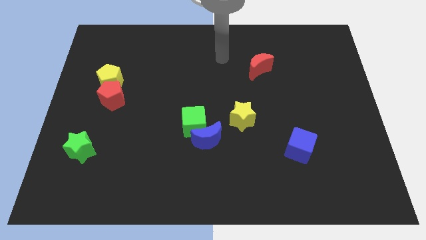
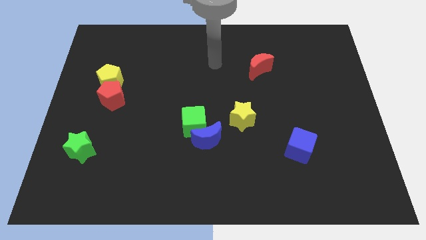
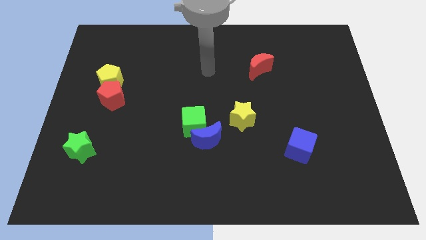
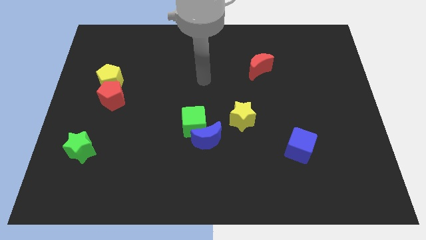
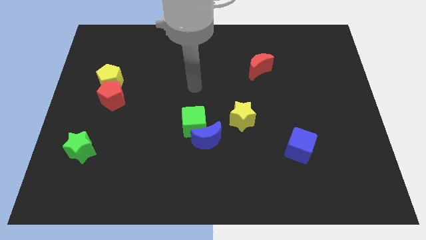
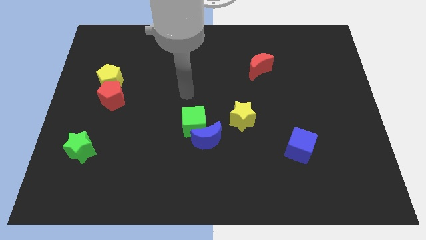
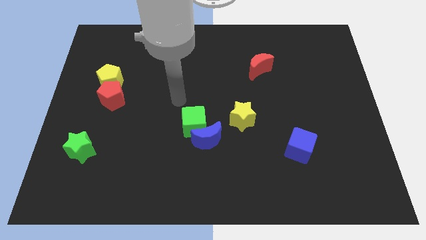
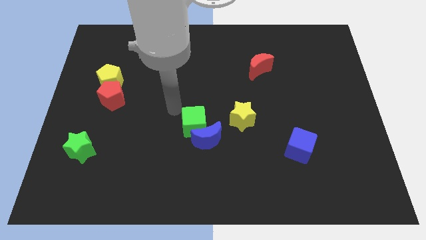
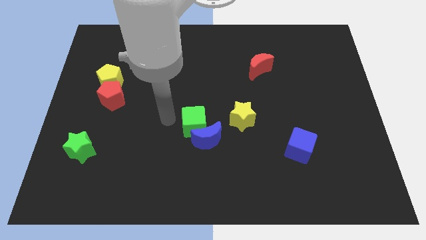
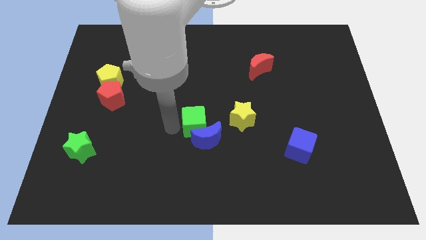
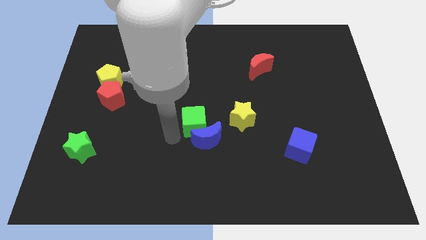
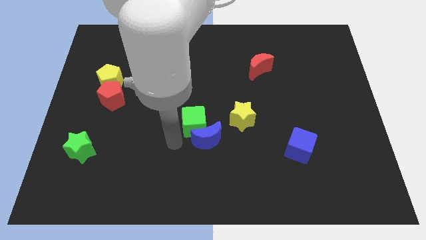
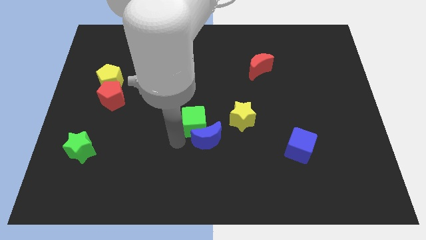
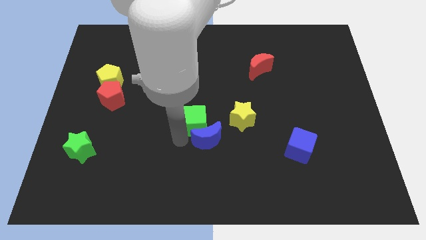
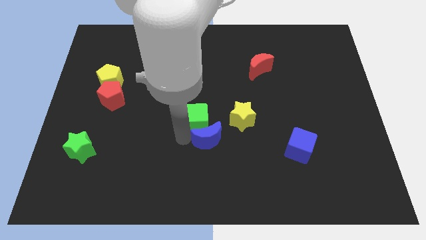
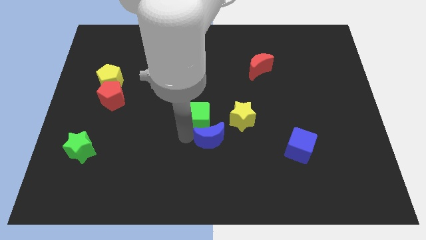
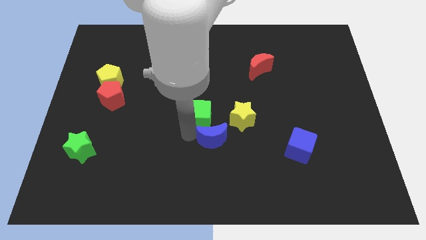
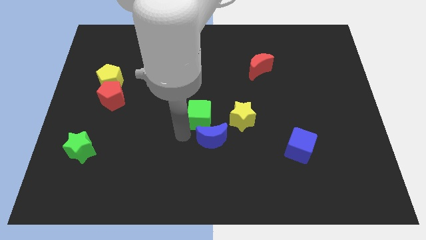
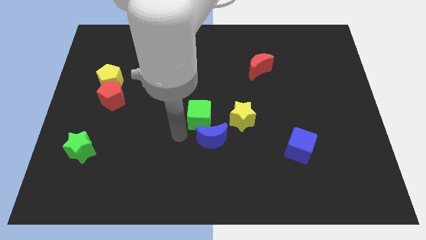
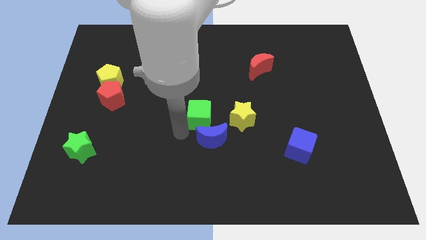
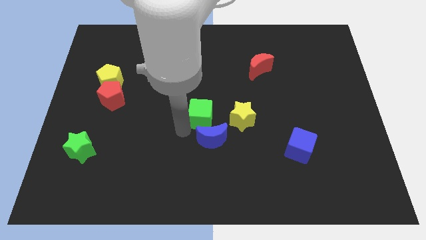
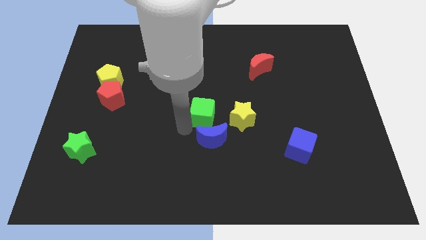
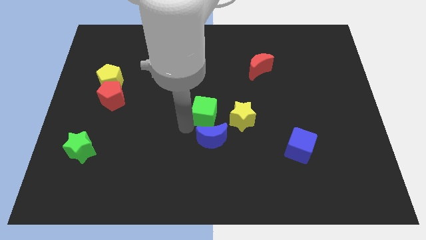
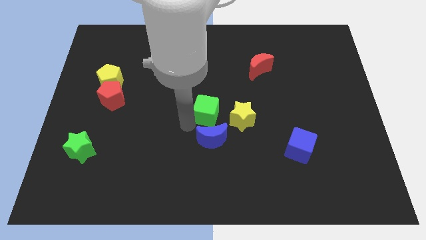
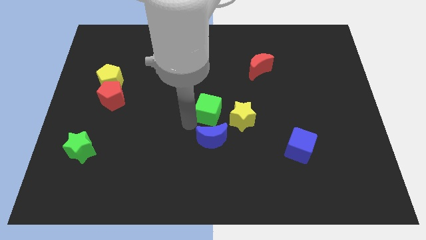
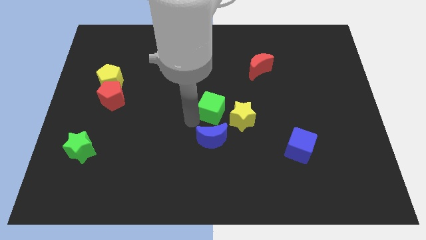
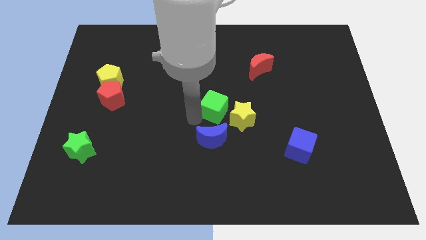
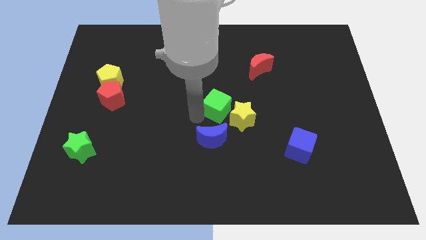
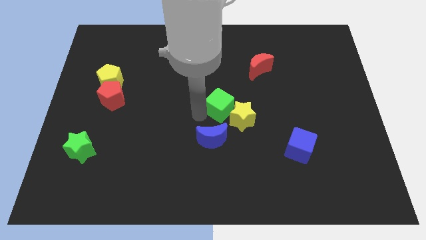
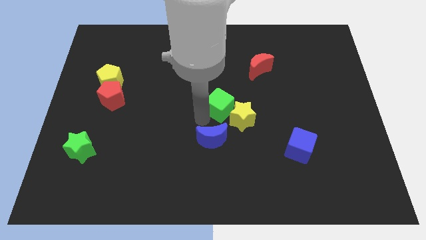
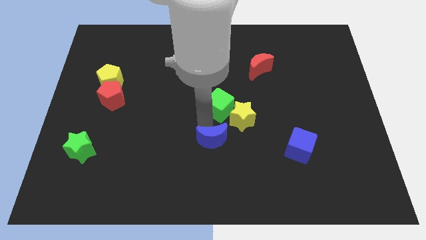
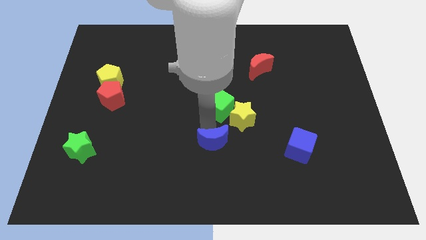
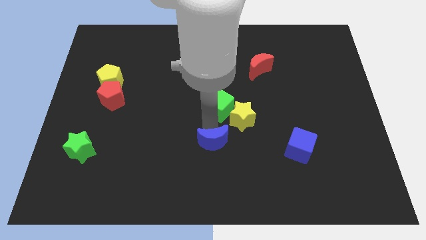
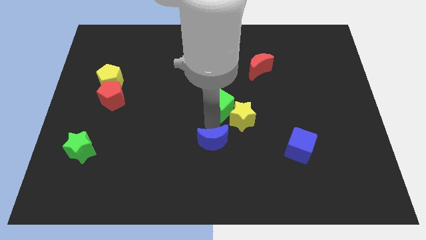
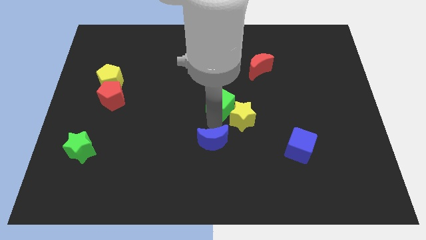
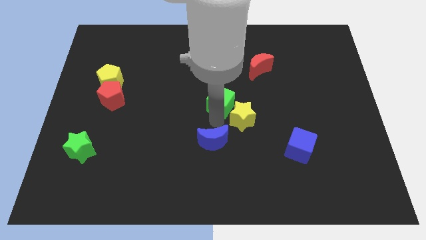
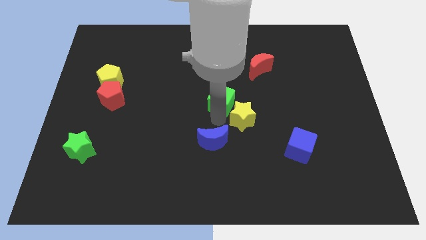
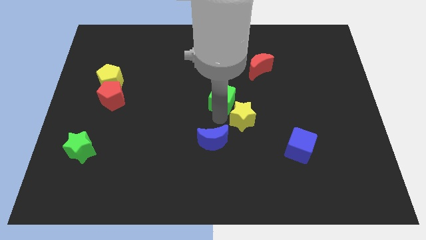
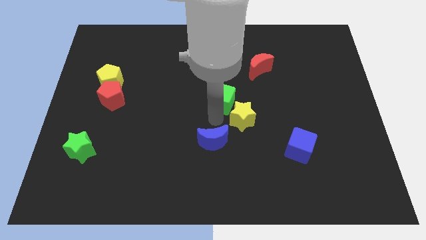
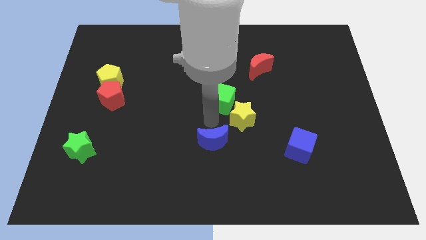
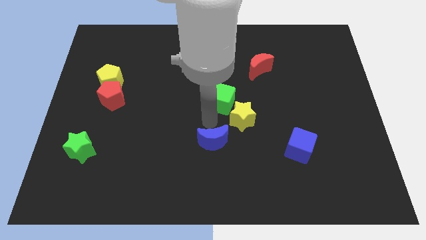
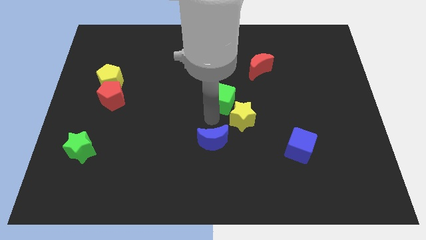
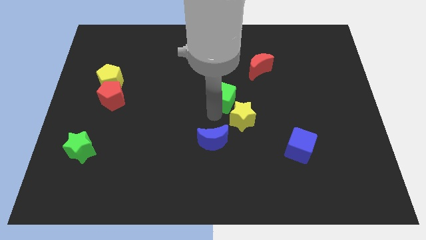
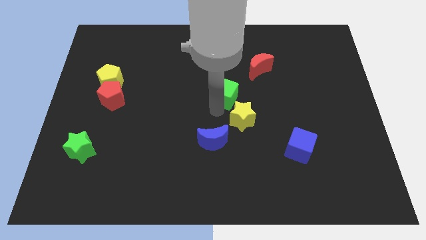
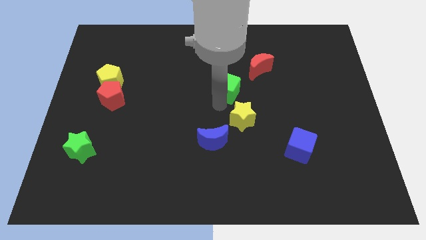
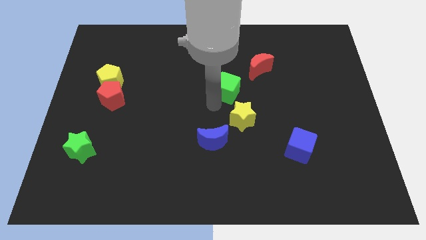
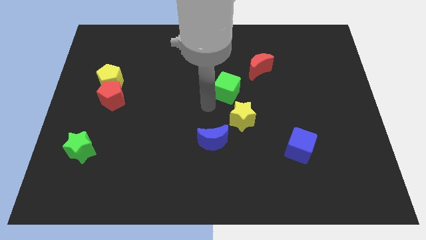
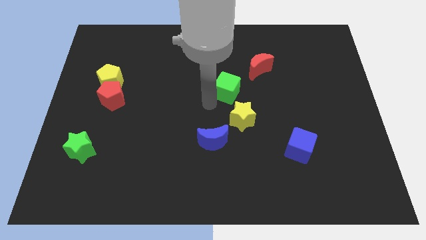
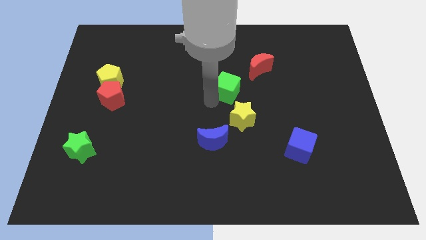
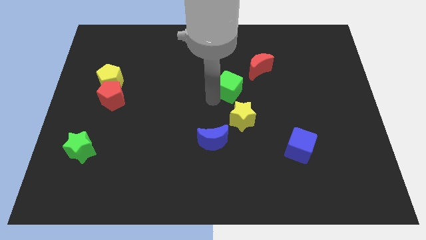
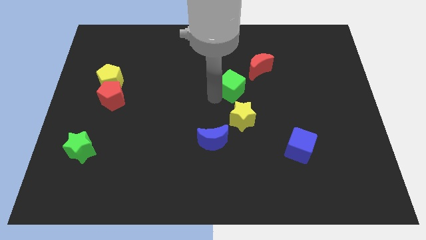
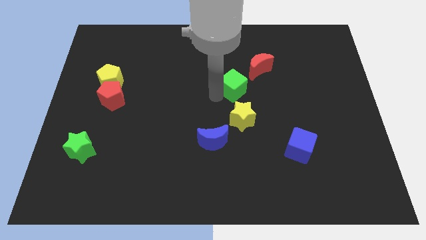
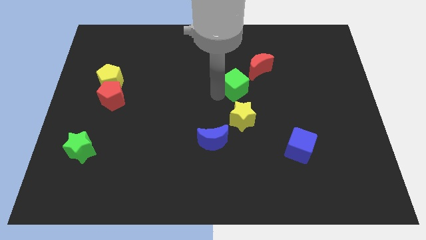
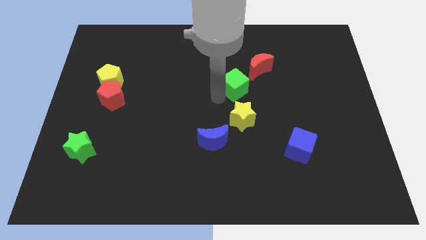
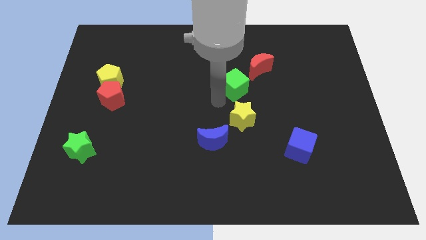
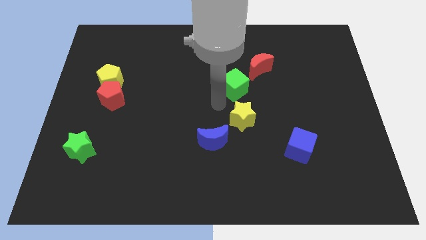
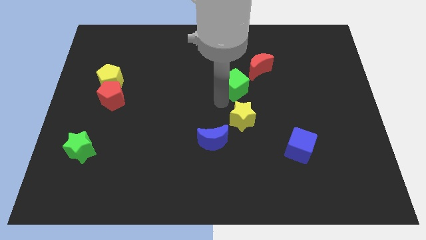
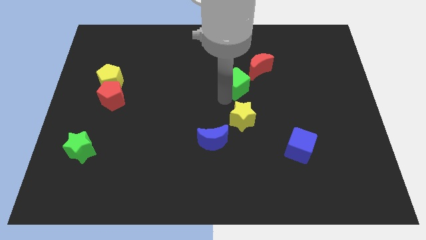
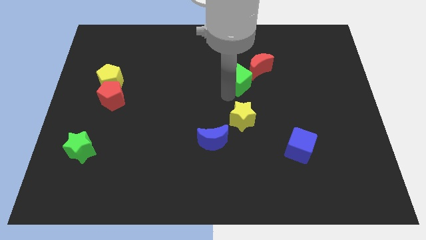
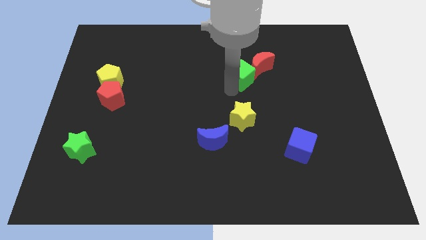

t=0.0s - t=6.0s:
slide the green cube towards the red moon

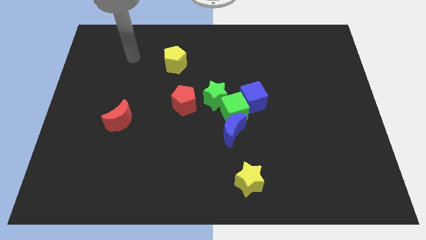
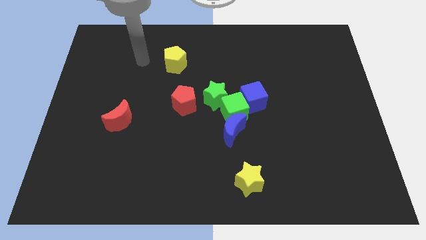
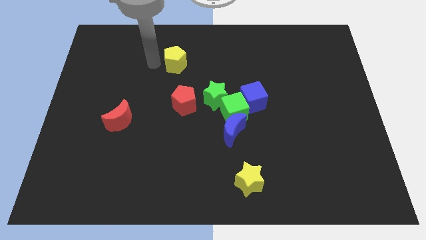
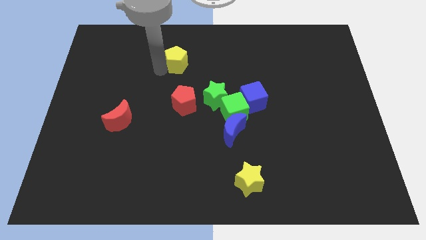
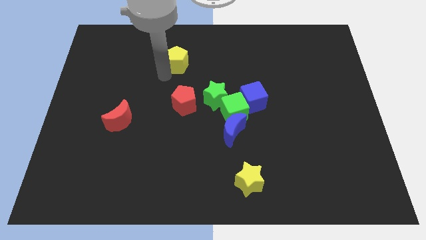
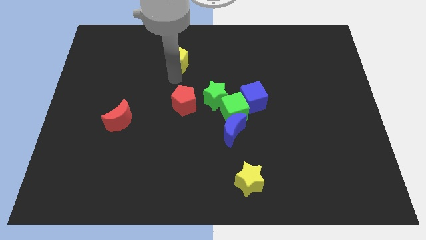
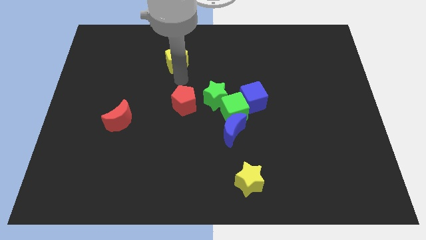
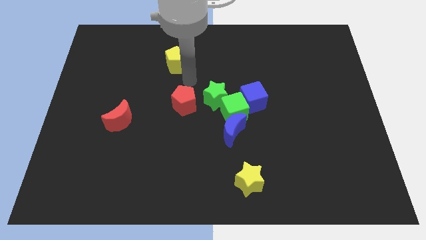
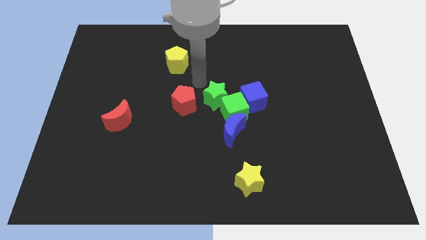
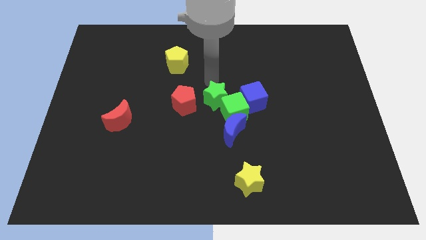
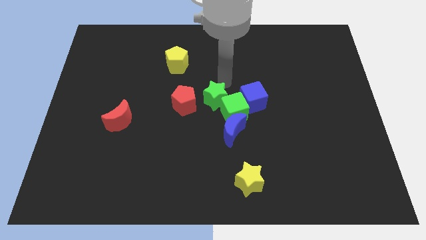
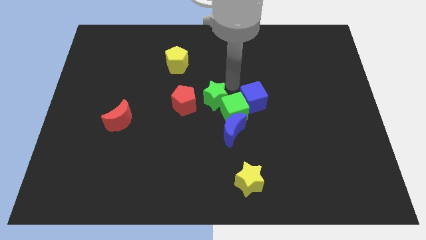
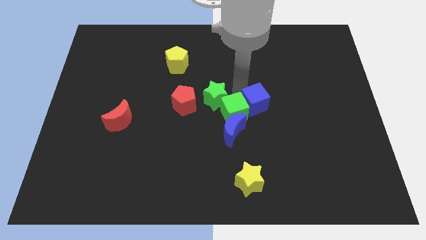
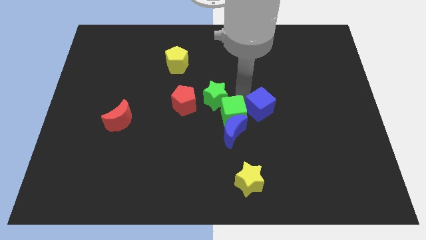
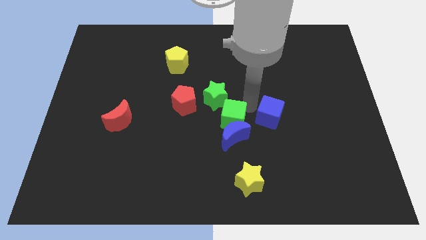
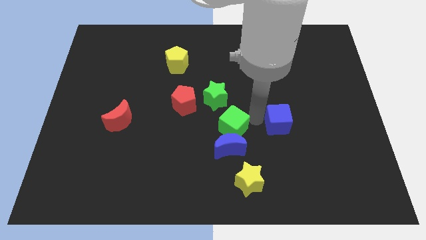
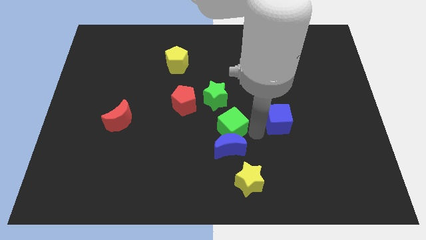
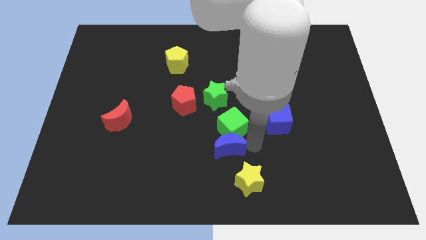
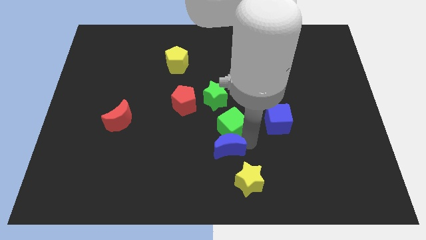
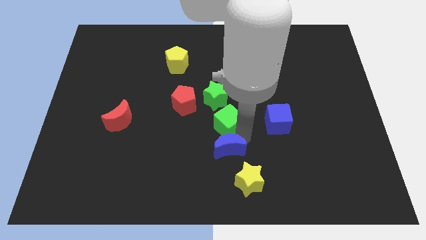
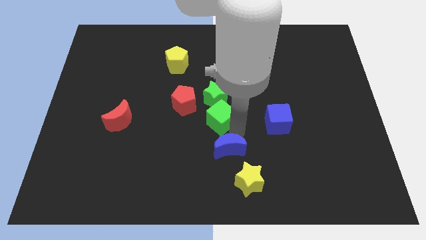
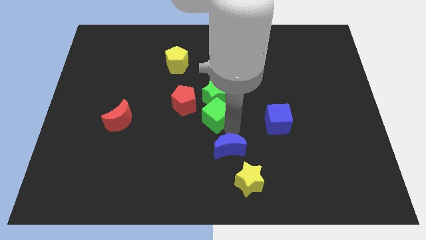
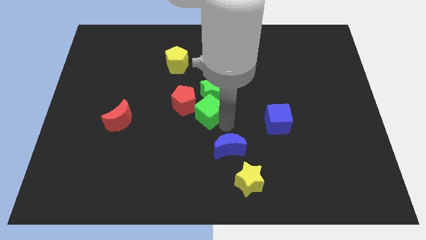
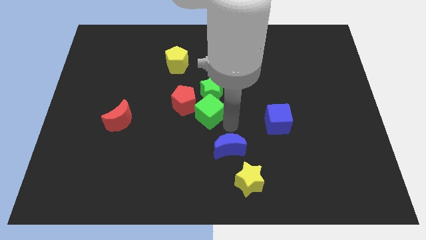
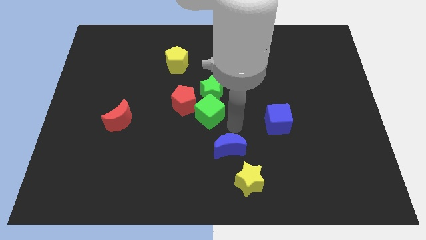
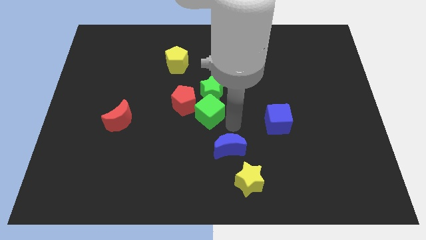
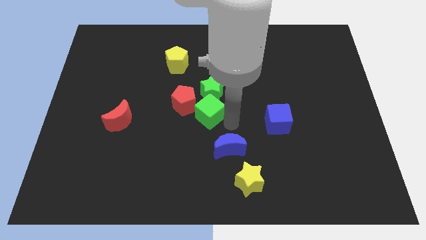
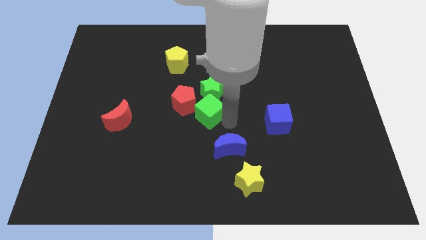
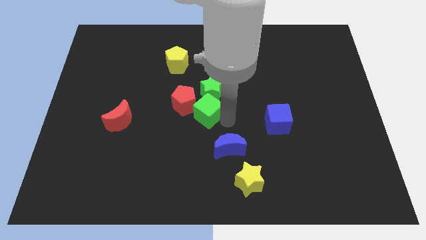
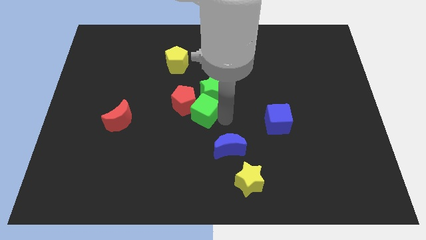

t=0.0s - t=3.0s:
slide the green cube towards the red pentagon
